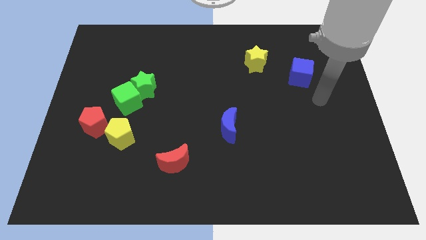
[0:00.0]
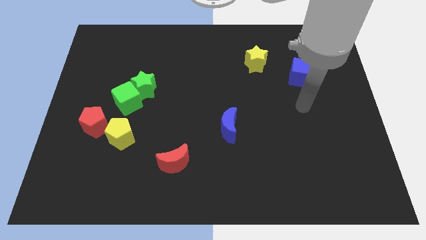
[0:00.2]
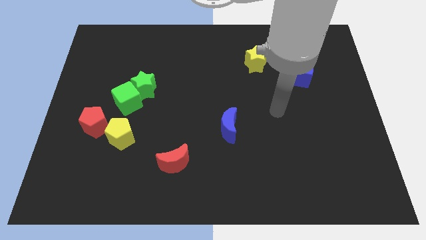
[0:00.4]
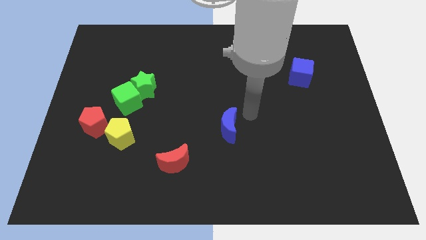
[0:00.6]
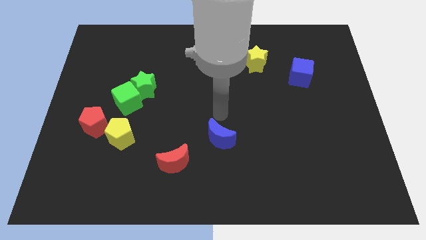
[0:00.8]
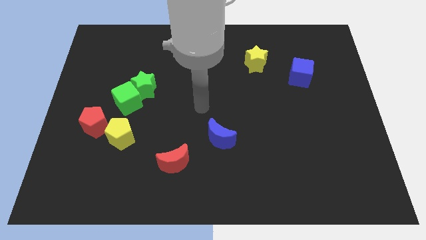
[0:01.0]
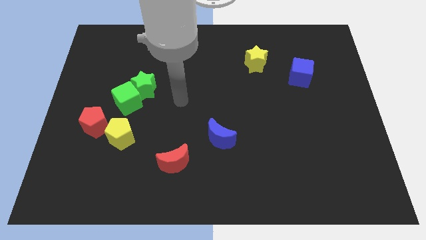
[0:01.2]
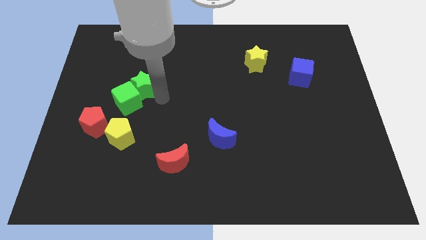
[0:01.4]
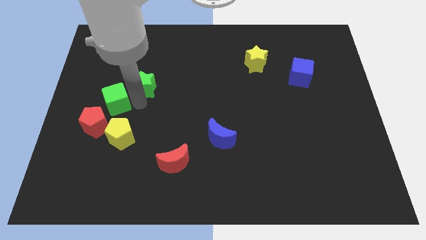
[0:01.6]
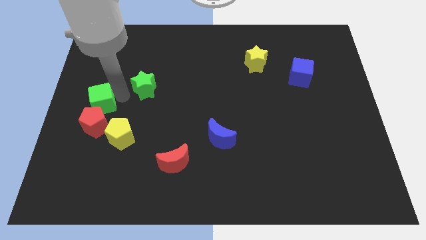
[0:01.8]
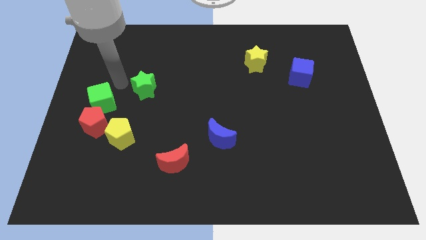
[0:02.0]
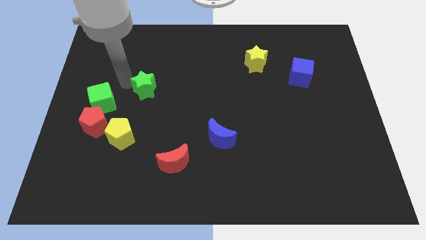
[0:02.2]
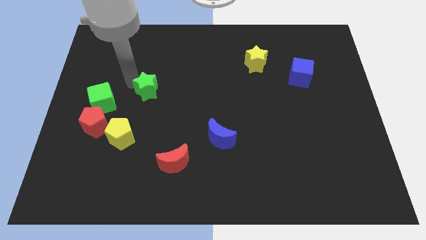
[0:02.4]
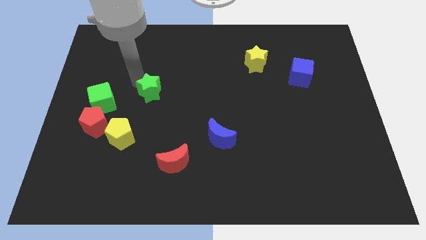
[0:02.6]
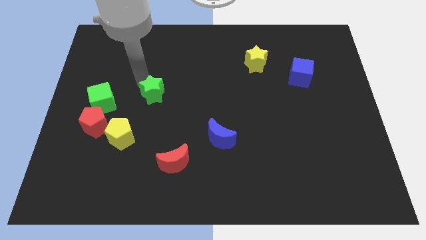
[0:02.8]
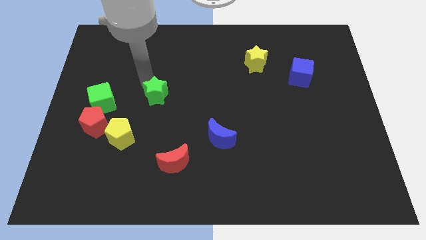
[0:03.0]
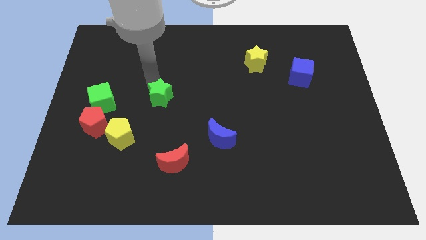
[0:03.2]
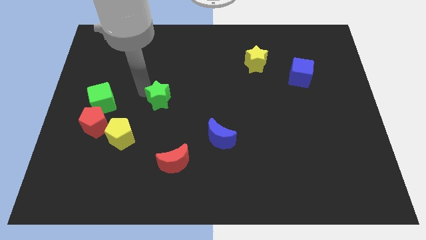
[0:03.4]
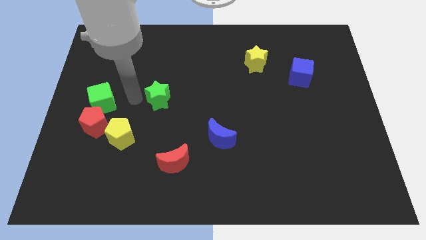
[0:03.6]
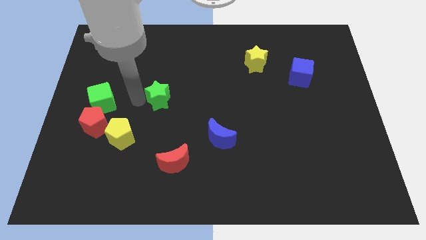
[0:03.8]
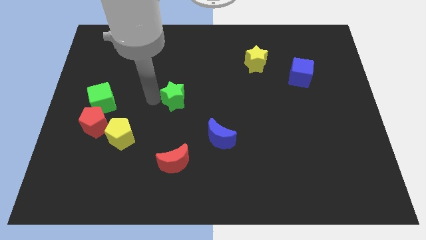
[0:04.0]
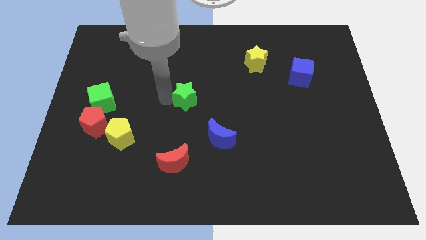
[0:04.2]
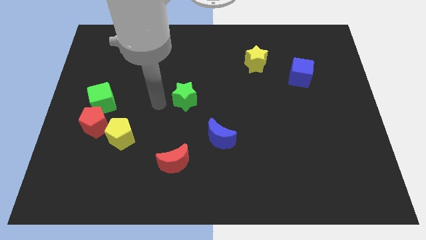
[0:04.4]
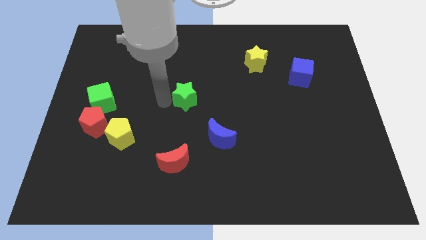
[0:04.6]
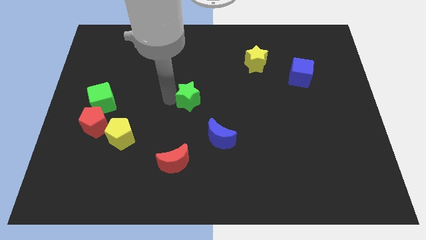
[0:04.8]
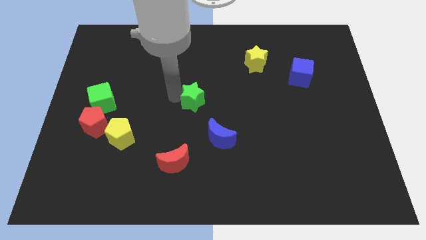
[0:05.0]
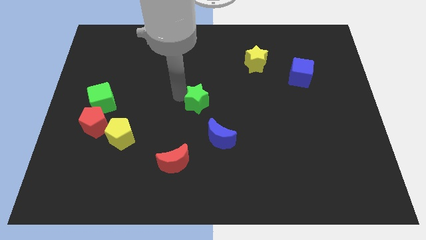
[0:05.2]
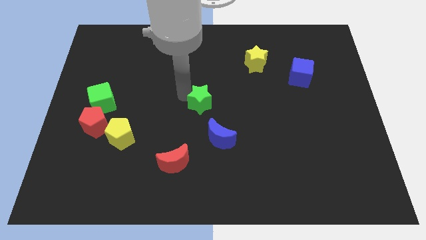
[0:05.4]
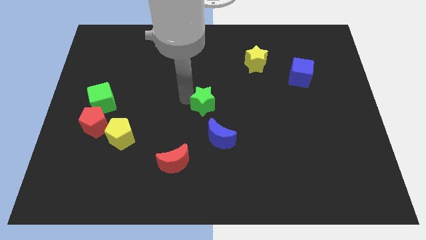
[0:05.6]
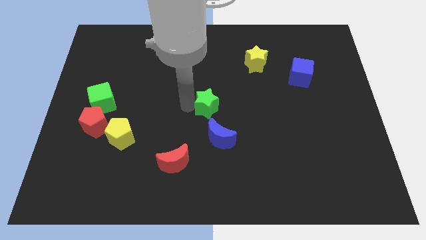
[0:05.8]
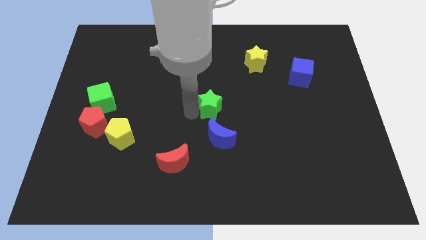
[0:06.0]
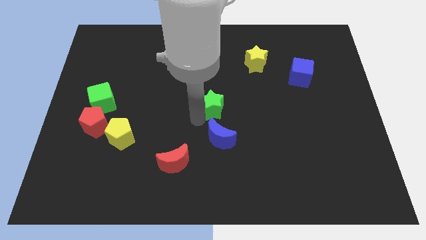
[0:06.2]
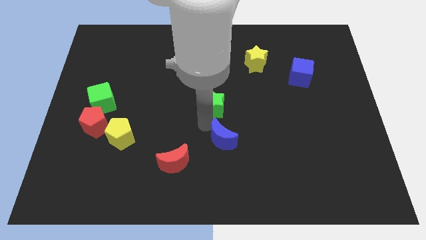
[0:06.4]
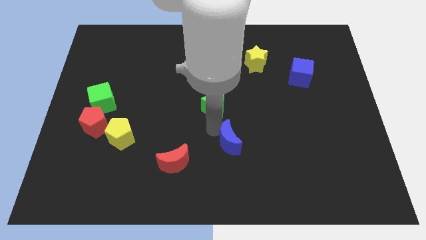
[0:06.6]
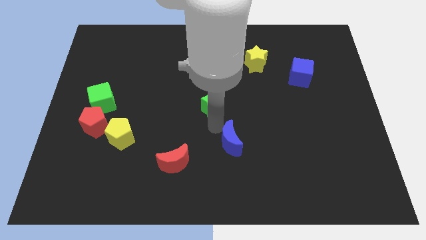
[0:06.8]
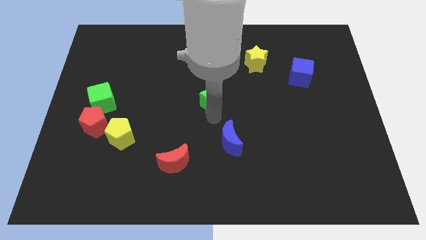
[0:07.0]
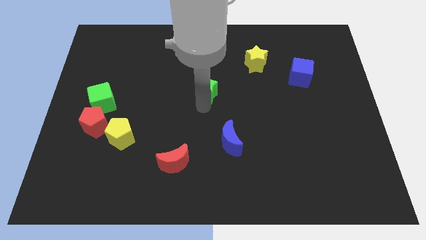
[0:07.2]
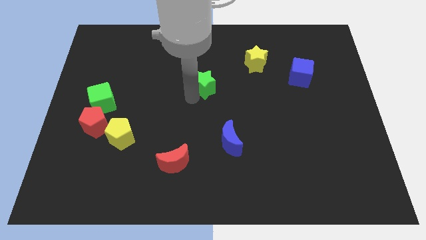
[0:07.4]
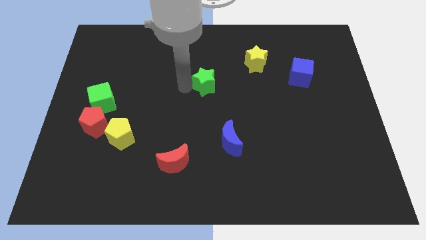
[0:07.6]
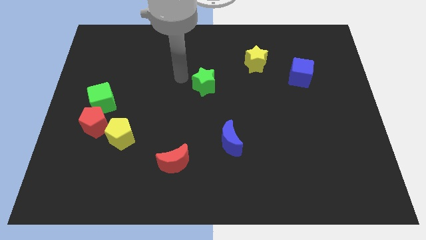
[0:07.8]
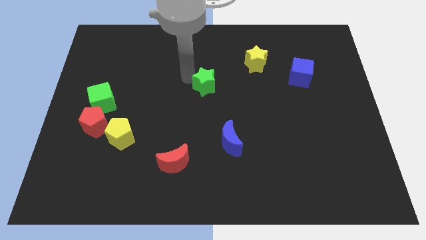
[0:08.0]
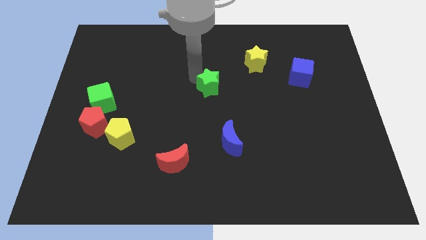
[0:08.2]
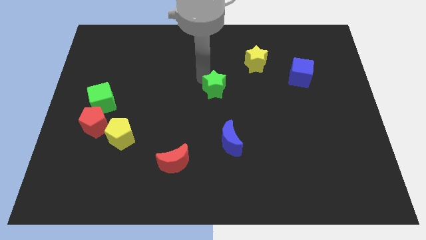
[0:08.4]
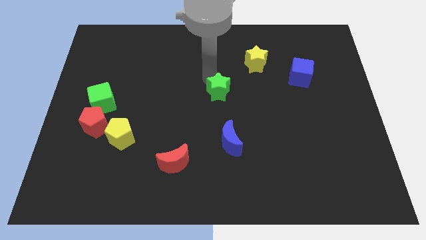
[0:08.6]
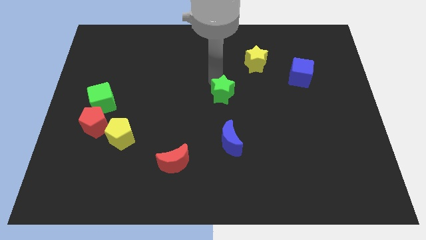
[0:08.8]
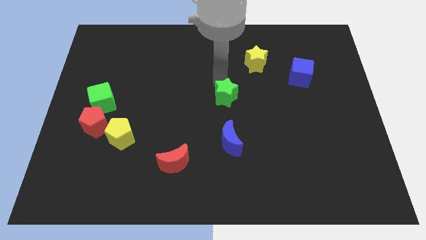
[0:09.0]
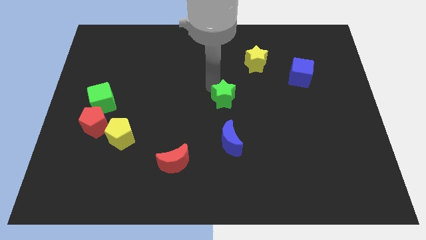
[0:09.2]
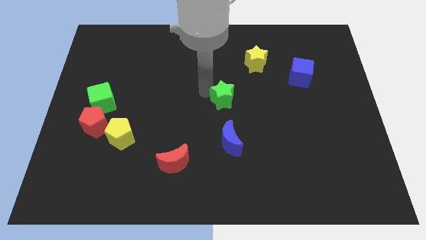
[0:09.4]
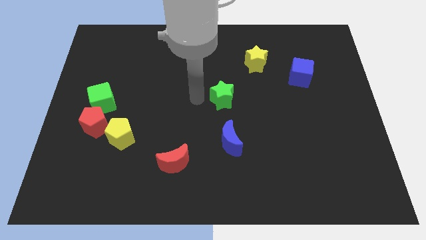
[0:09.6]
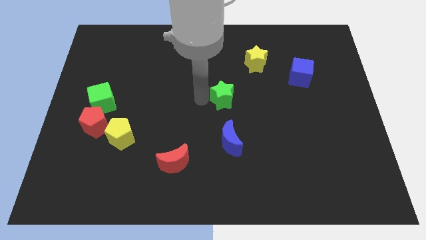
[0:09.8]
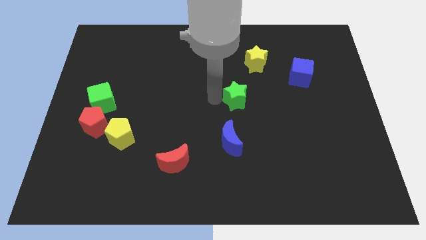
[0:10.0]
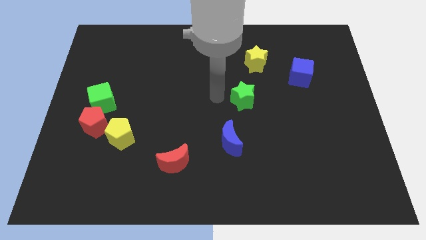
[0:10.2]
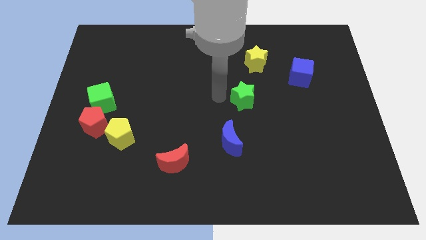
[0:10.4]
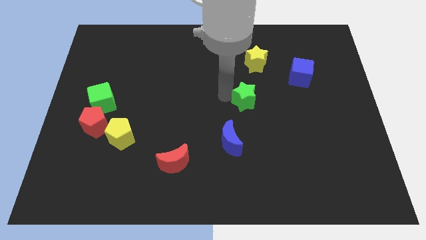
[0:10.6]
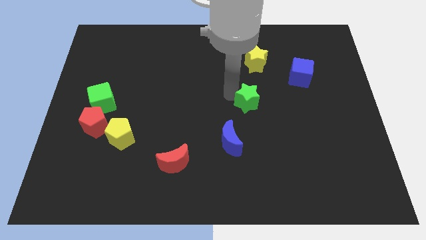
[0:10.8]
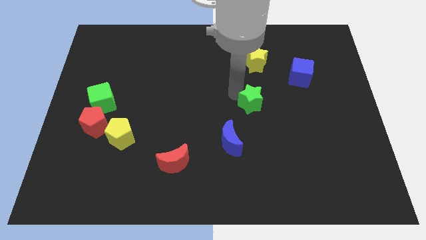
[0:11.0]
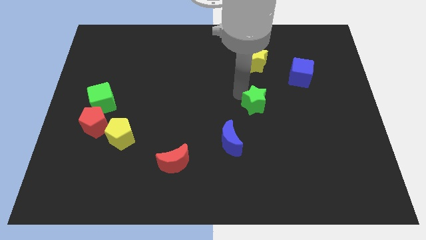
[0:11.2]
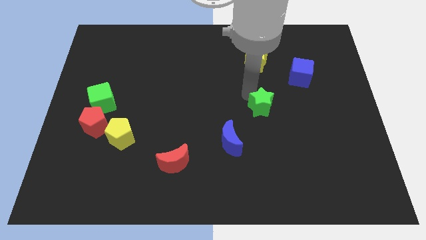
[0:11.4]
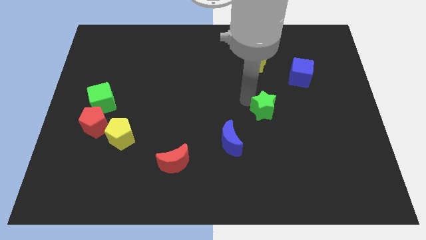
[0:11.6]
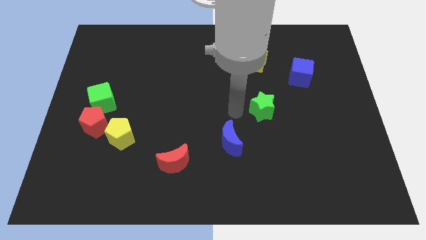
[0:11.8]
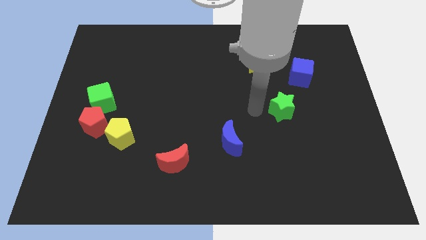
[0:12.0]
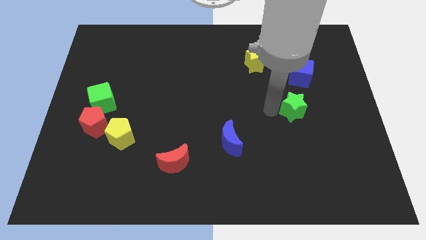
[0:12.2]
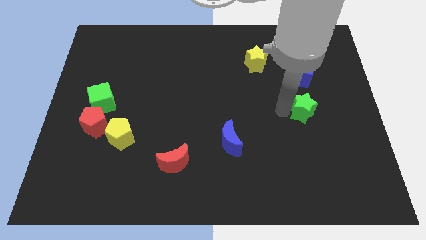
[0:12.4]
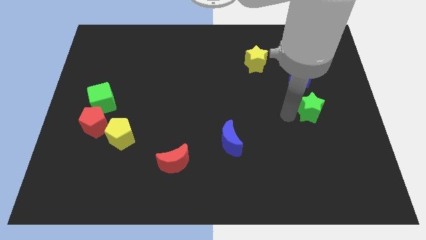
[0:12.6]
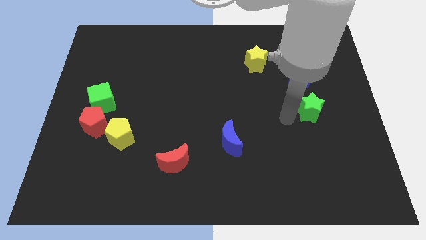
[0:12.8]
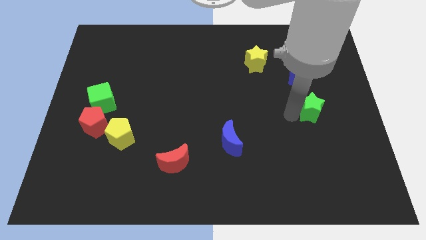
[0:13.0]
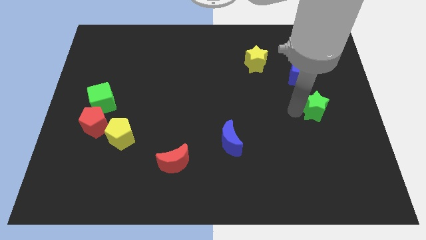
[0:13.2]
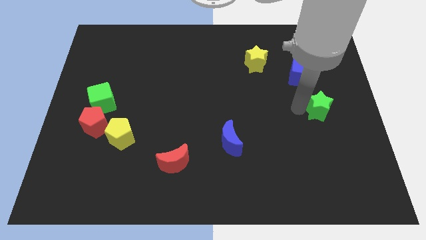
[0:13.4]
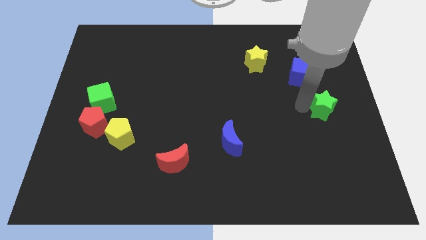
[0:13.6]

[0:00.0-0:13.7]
put the green star to the center right
